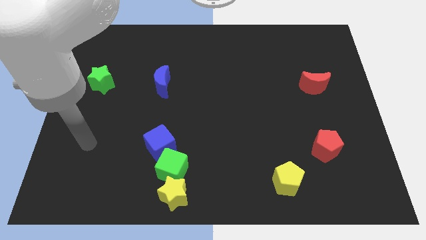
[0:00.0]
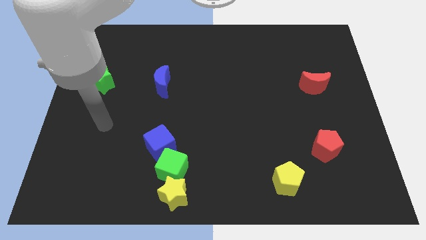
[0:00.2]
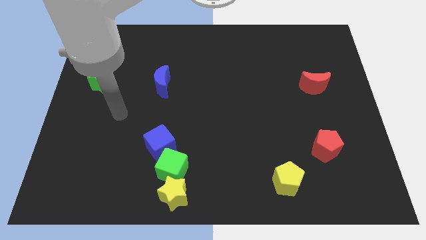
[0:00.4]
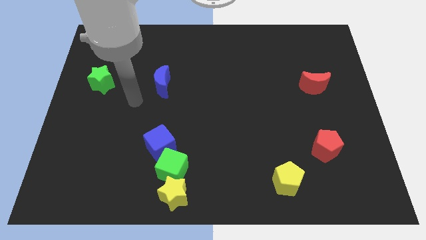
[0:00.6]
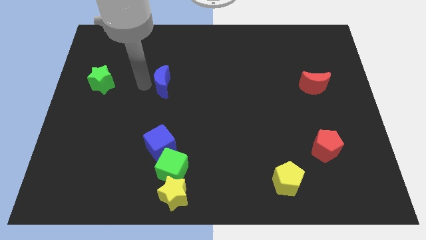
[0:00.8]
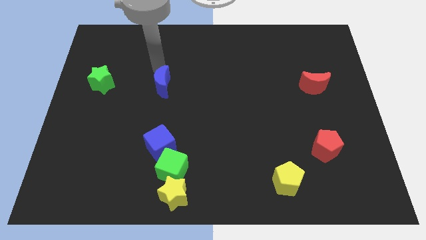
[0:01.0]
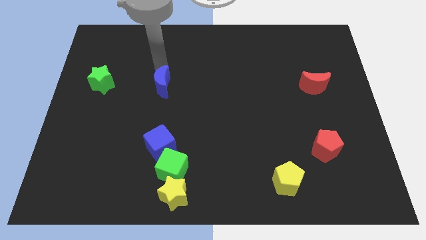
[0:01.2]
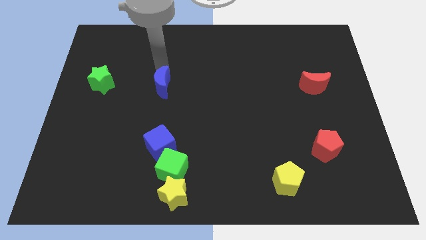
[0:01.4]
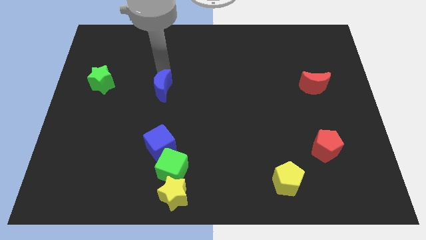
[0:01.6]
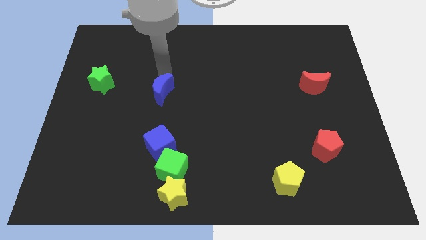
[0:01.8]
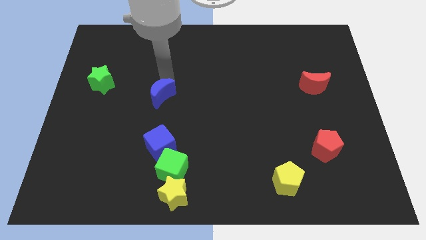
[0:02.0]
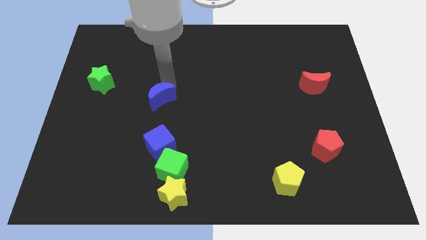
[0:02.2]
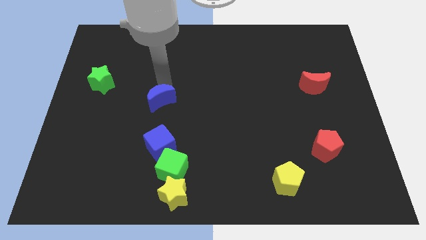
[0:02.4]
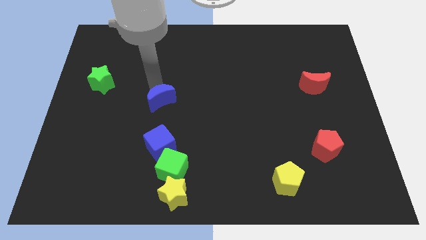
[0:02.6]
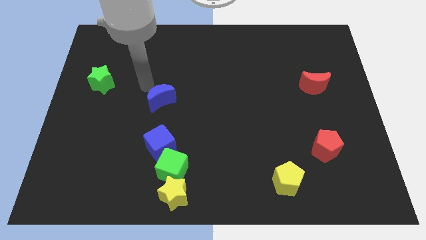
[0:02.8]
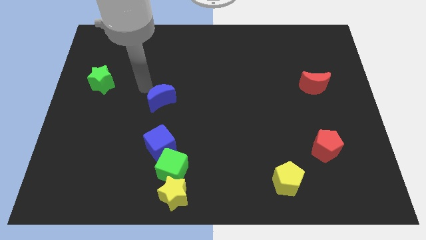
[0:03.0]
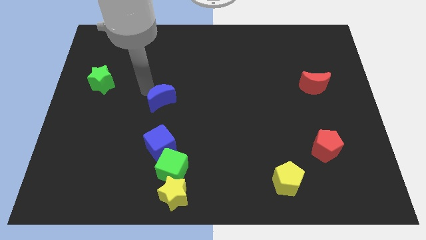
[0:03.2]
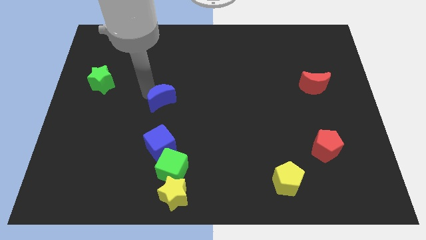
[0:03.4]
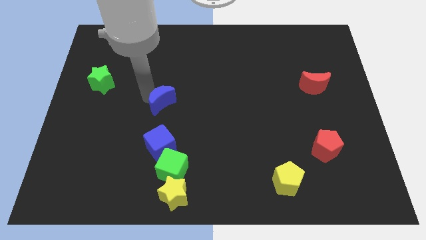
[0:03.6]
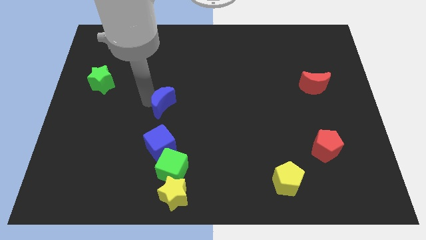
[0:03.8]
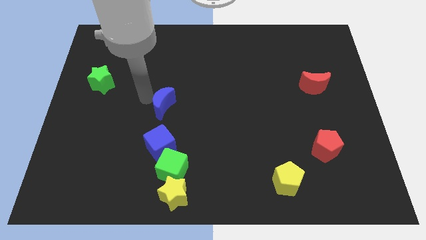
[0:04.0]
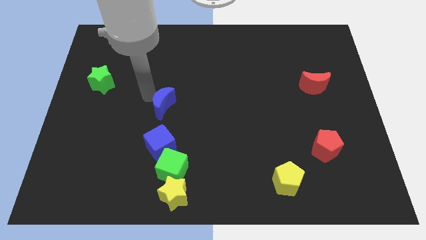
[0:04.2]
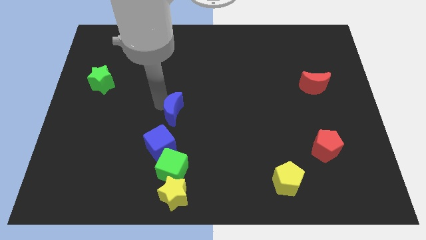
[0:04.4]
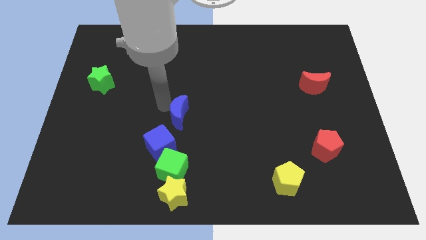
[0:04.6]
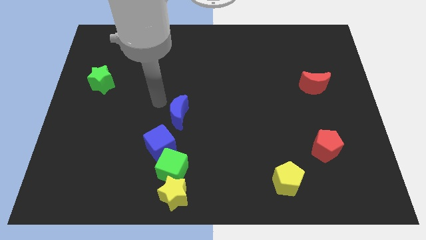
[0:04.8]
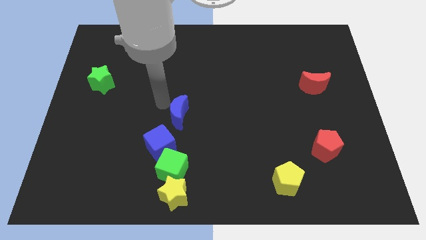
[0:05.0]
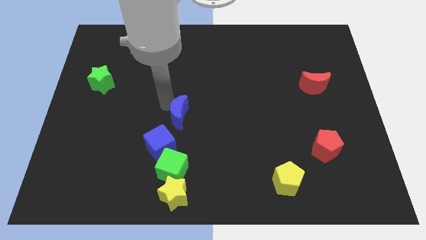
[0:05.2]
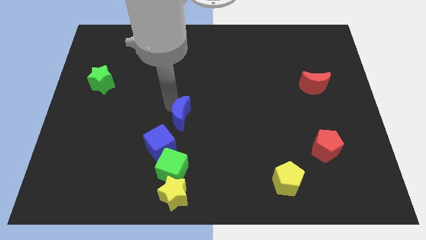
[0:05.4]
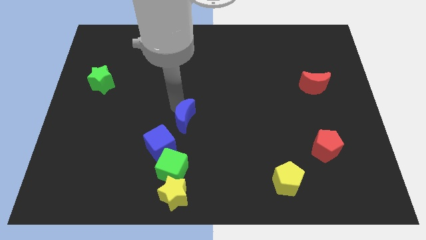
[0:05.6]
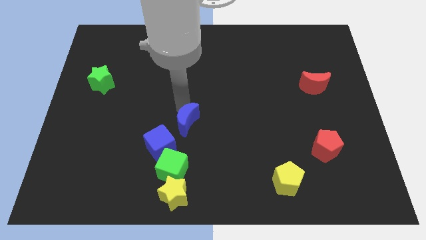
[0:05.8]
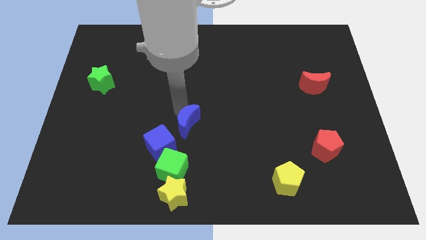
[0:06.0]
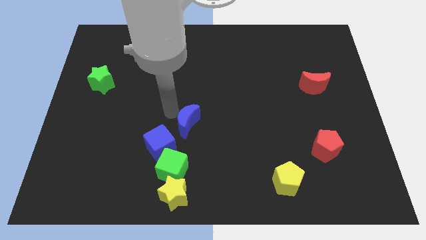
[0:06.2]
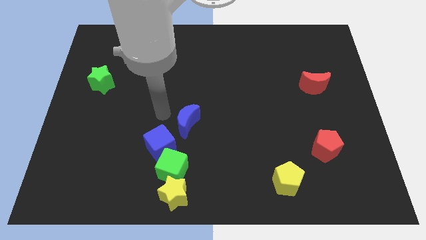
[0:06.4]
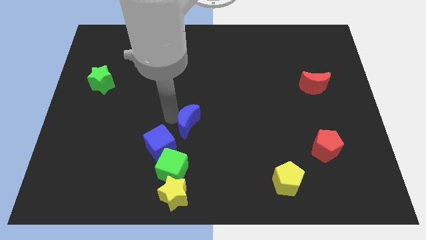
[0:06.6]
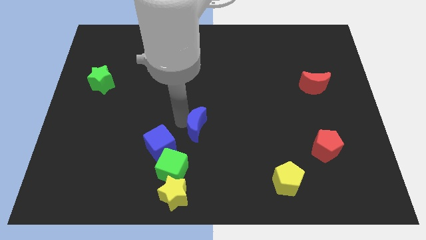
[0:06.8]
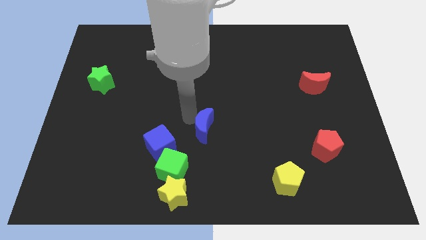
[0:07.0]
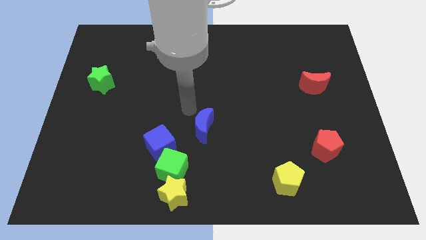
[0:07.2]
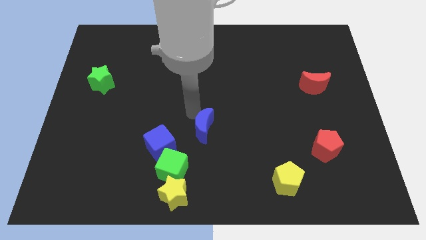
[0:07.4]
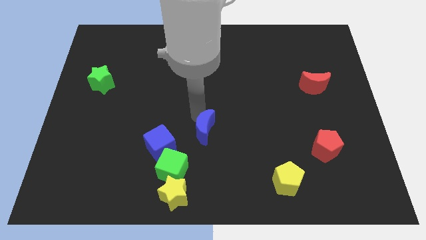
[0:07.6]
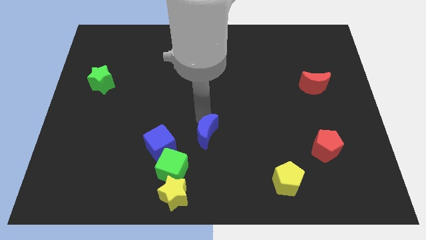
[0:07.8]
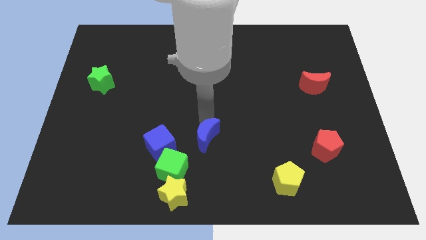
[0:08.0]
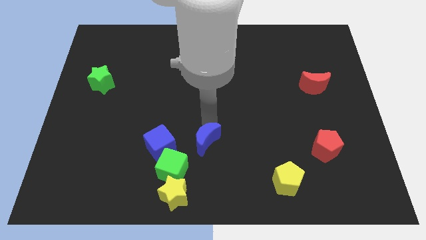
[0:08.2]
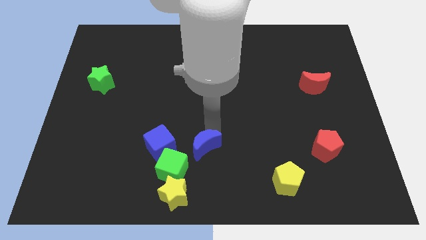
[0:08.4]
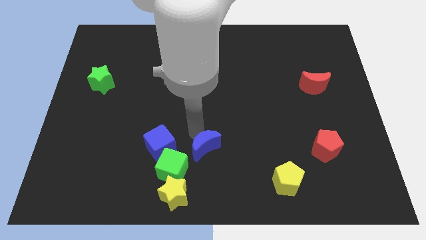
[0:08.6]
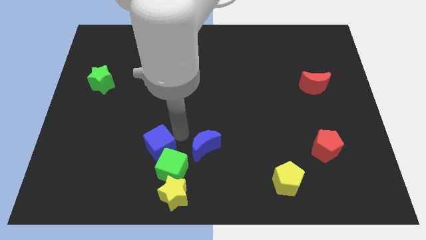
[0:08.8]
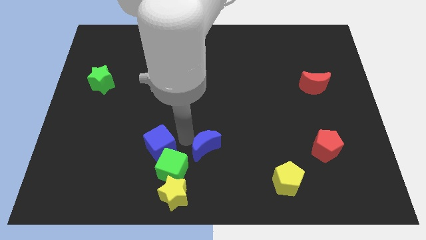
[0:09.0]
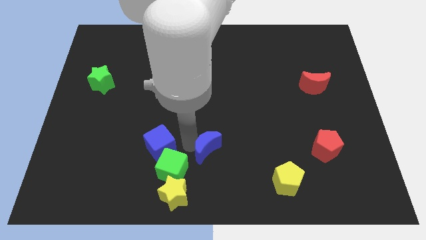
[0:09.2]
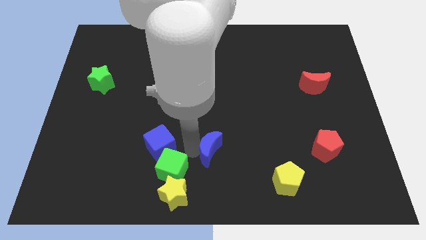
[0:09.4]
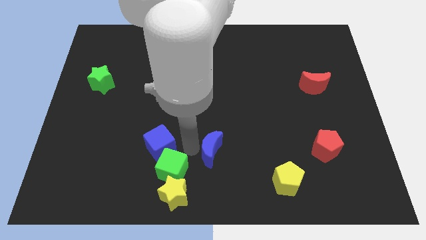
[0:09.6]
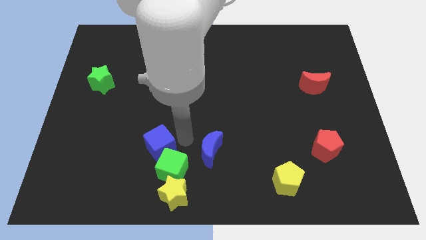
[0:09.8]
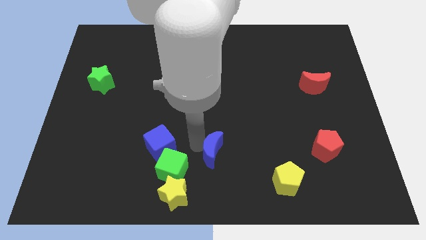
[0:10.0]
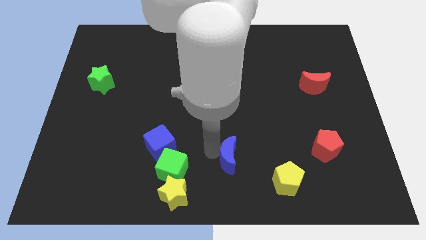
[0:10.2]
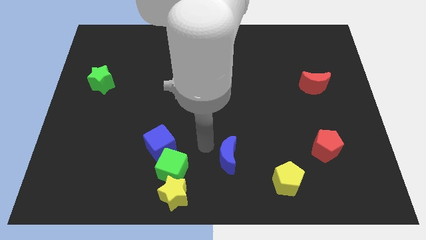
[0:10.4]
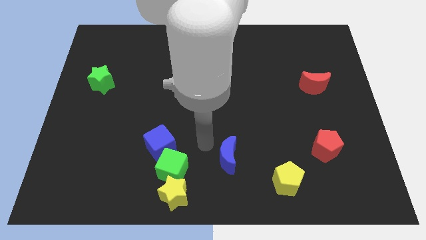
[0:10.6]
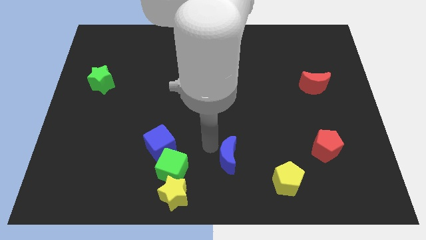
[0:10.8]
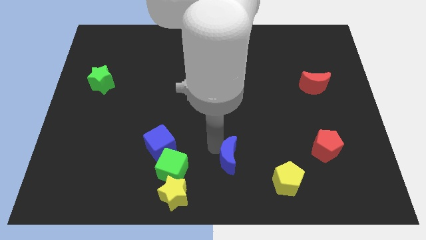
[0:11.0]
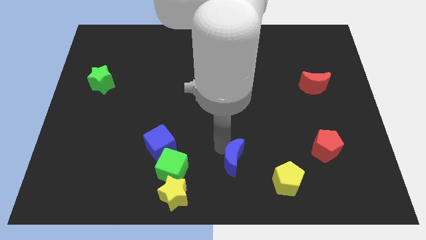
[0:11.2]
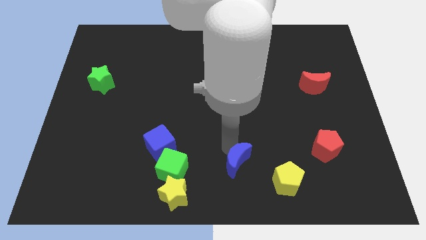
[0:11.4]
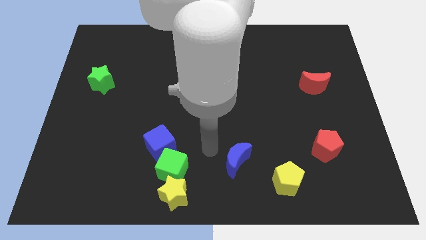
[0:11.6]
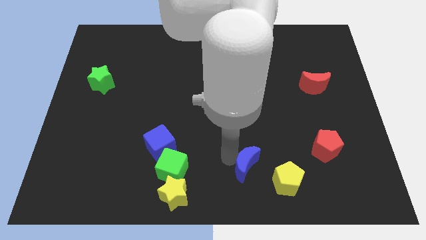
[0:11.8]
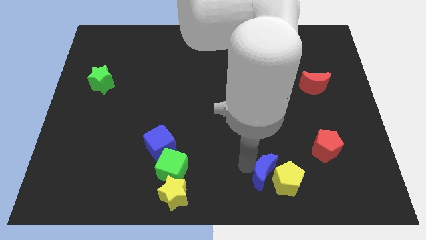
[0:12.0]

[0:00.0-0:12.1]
move the blue moon to the yellow pentagon

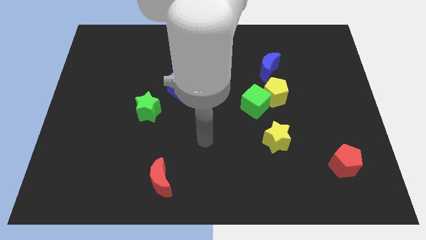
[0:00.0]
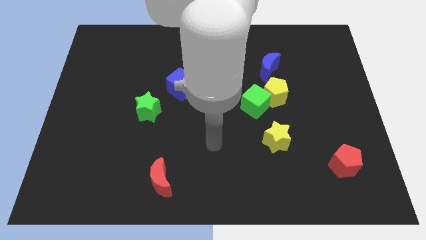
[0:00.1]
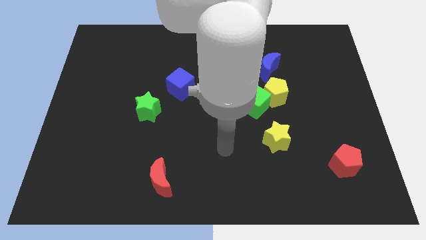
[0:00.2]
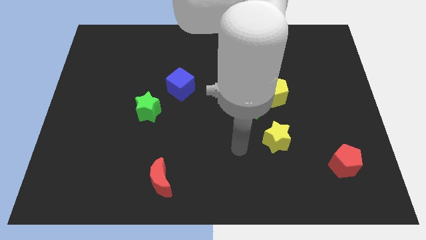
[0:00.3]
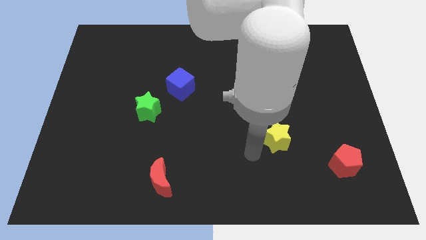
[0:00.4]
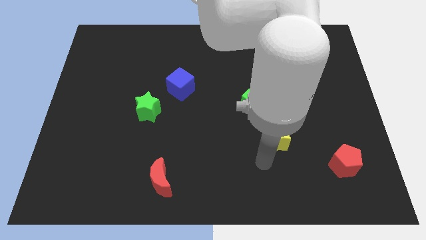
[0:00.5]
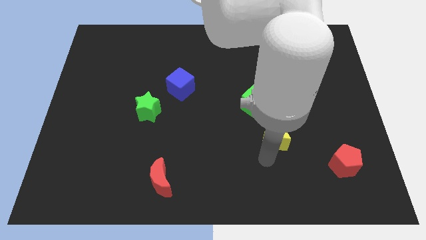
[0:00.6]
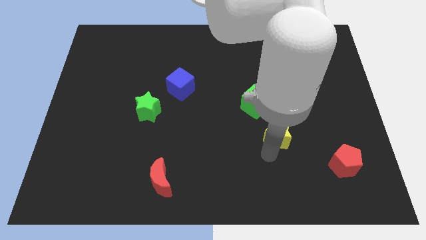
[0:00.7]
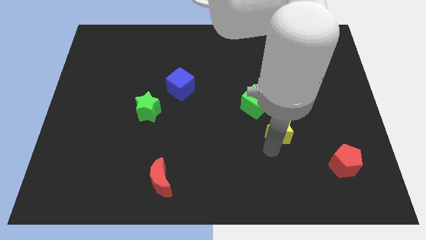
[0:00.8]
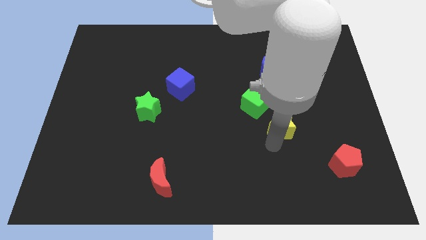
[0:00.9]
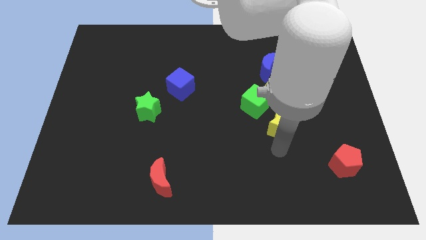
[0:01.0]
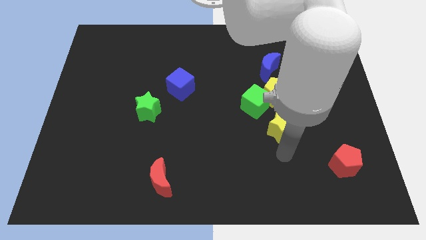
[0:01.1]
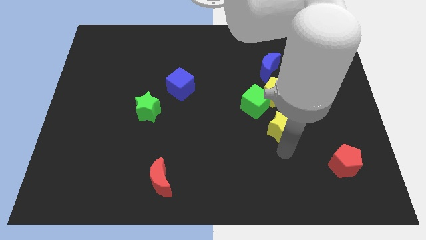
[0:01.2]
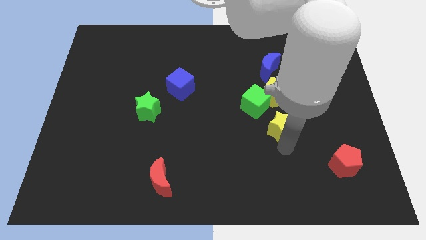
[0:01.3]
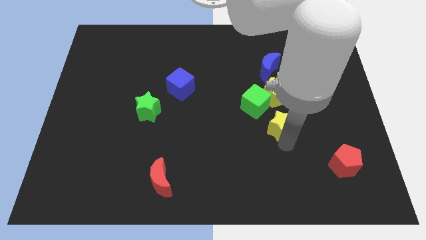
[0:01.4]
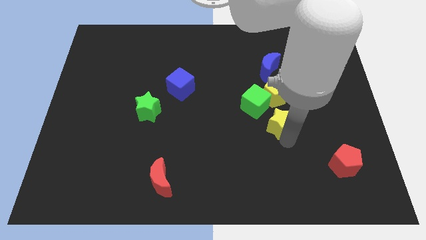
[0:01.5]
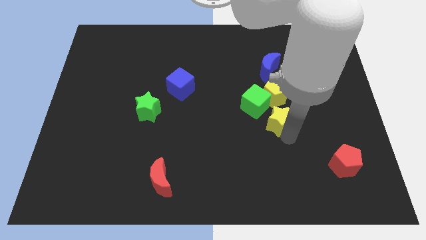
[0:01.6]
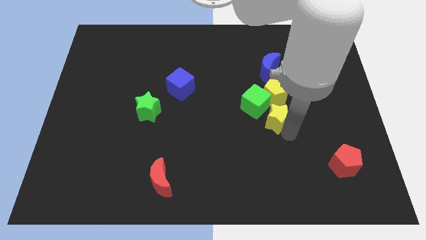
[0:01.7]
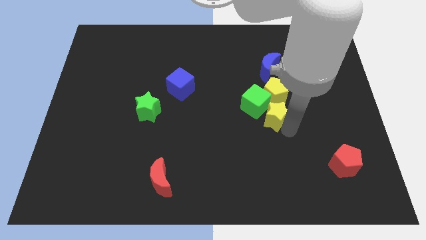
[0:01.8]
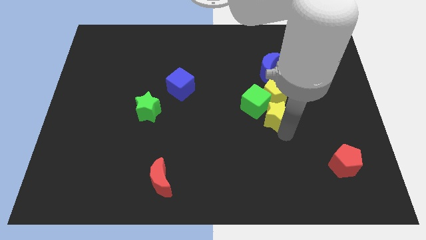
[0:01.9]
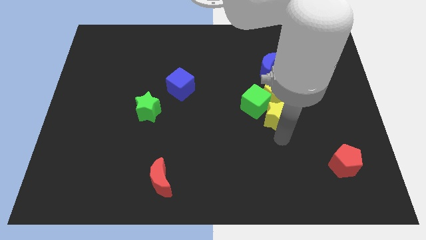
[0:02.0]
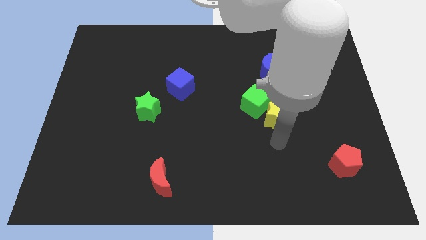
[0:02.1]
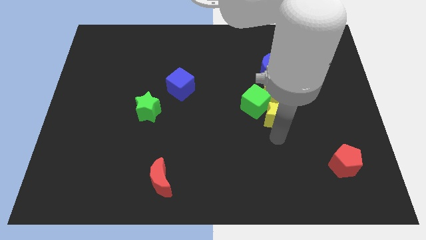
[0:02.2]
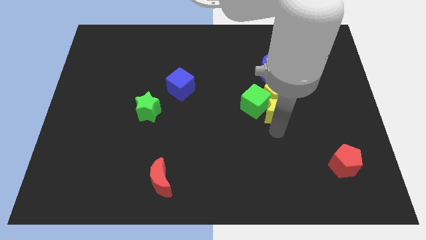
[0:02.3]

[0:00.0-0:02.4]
push the yellow star close to the yellow pentagon
